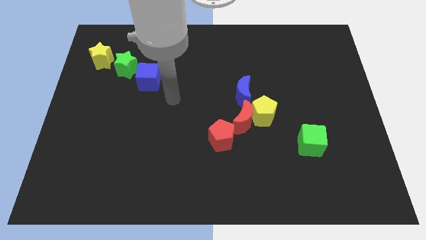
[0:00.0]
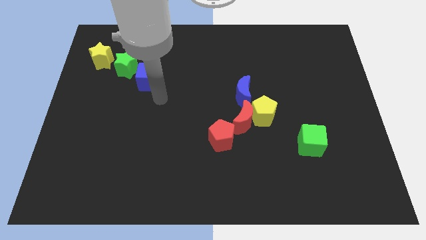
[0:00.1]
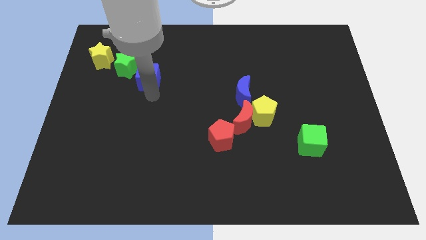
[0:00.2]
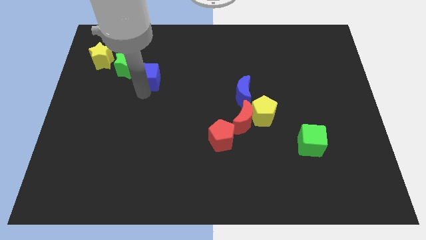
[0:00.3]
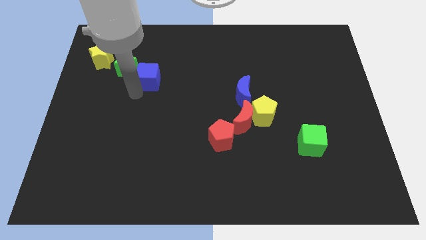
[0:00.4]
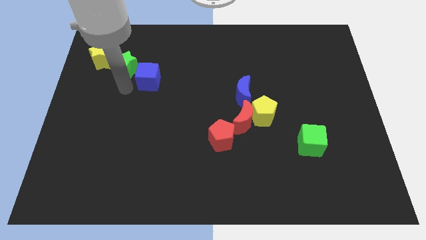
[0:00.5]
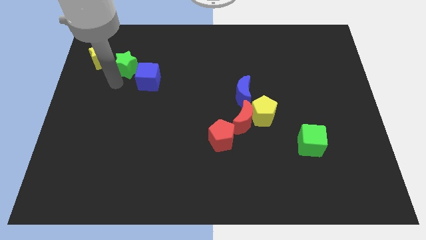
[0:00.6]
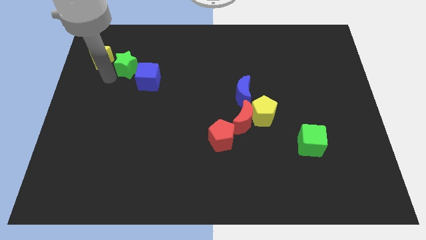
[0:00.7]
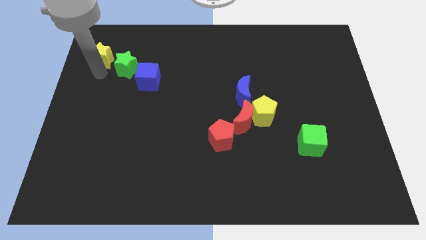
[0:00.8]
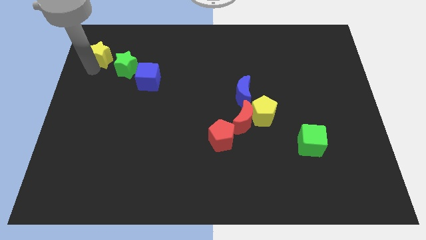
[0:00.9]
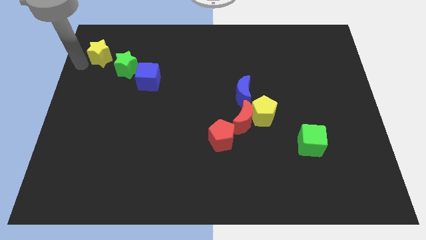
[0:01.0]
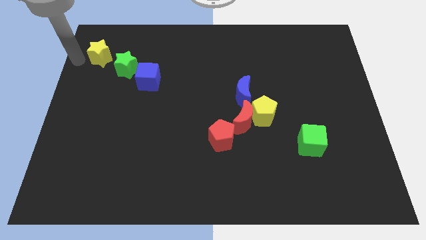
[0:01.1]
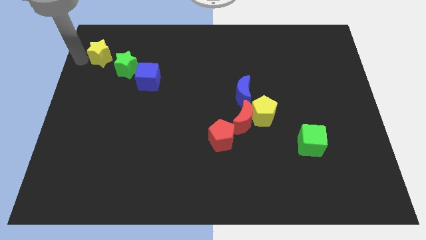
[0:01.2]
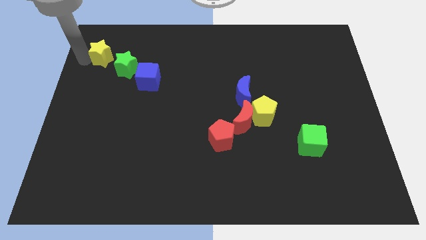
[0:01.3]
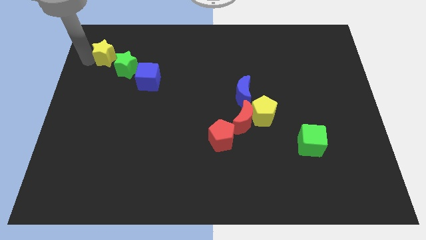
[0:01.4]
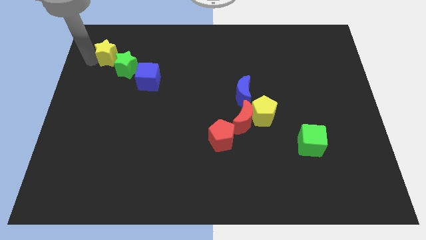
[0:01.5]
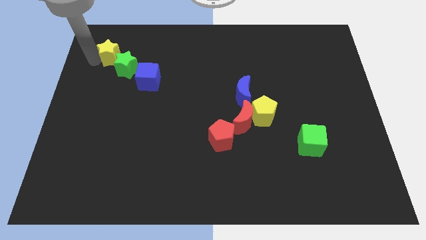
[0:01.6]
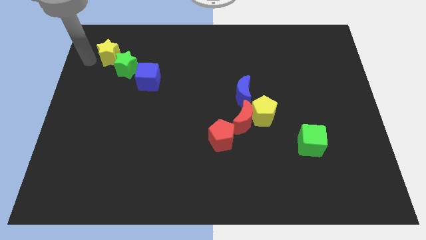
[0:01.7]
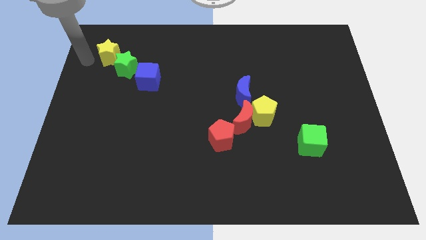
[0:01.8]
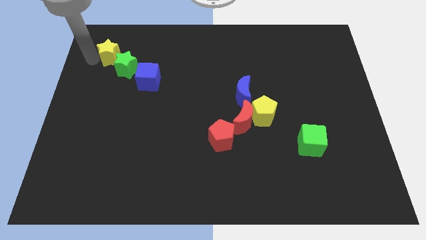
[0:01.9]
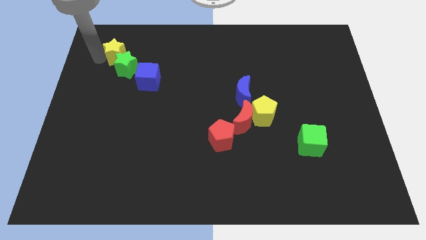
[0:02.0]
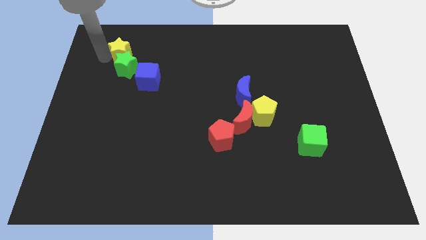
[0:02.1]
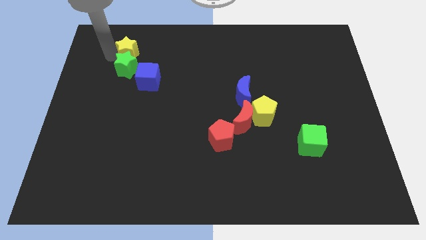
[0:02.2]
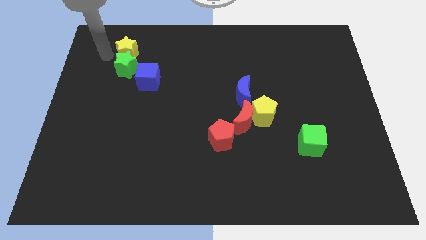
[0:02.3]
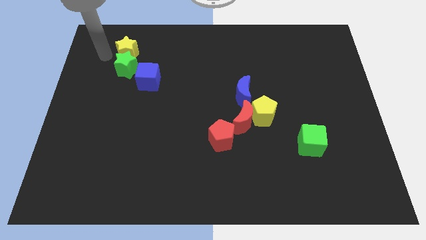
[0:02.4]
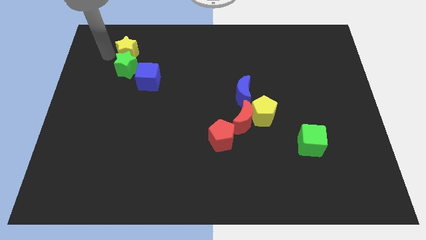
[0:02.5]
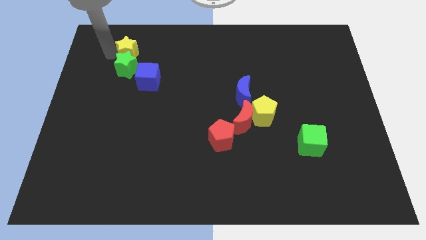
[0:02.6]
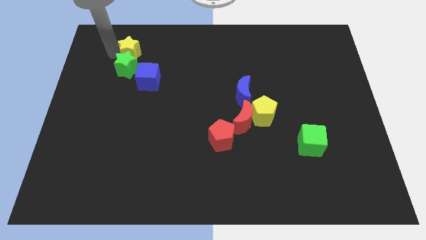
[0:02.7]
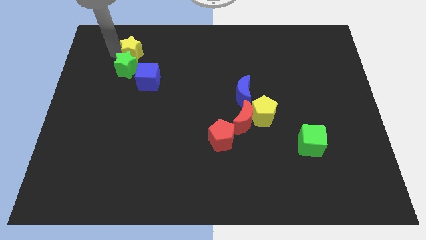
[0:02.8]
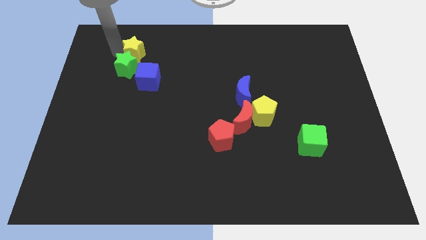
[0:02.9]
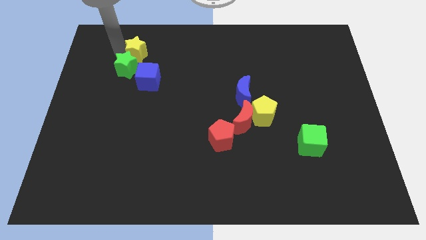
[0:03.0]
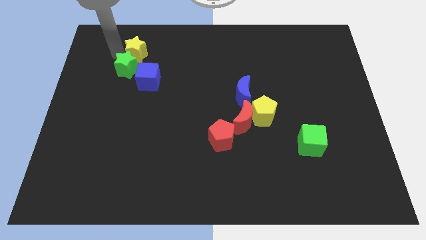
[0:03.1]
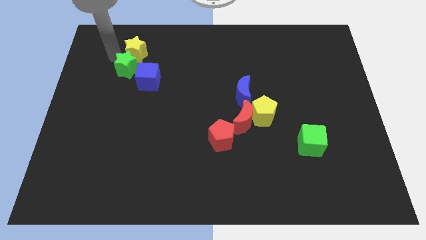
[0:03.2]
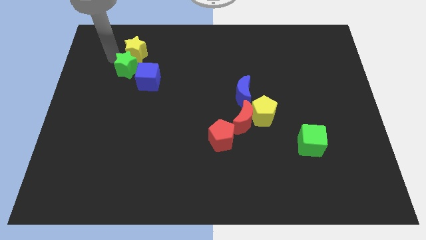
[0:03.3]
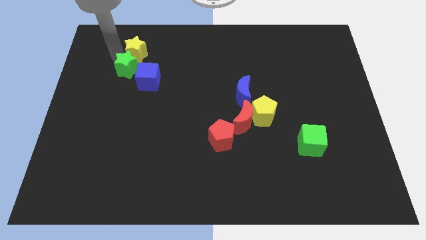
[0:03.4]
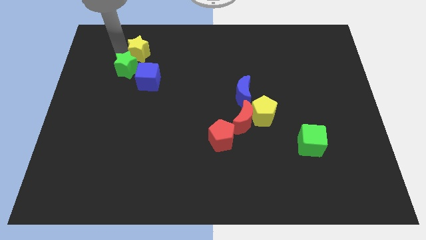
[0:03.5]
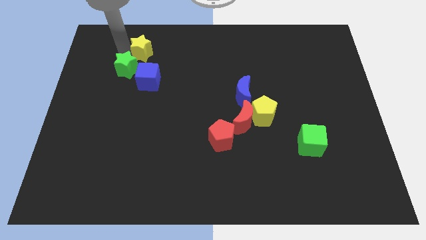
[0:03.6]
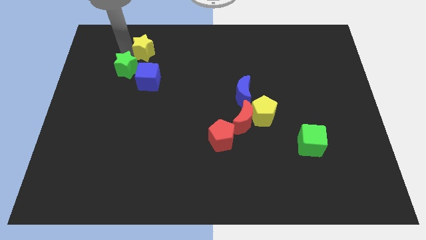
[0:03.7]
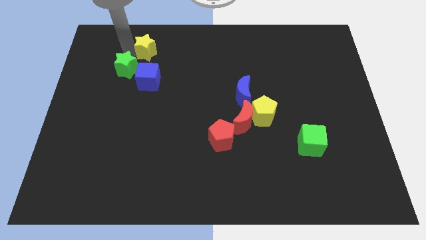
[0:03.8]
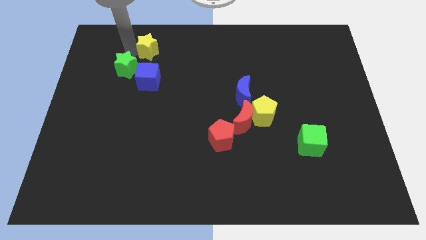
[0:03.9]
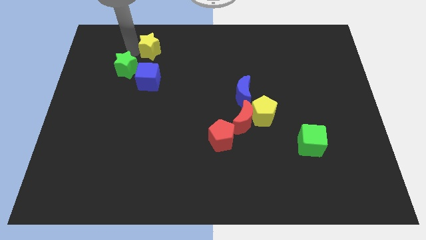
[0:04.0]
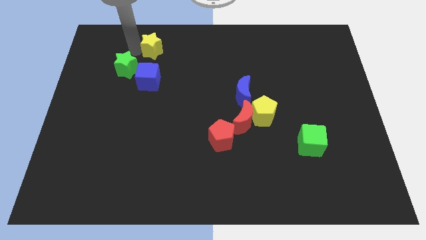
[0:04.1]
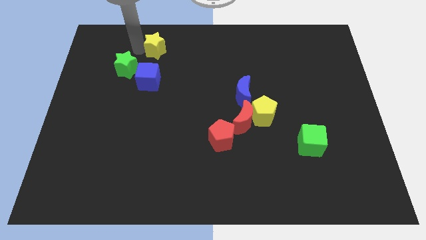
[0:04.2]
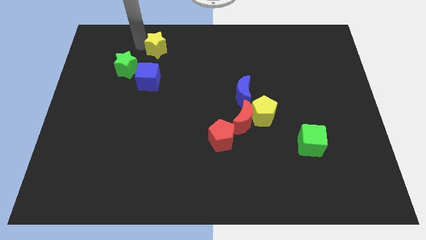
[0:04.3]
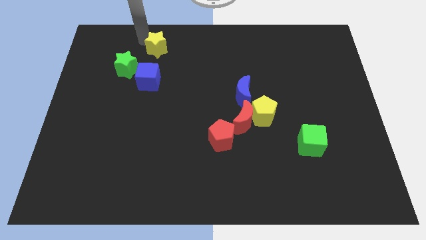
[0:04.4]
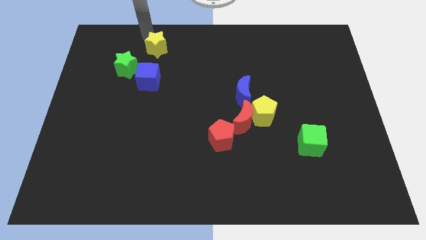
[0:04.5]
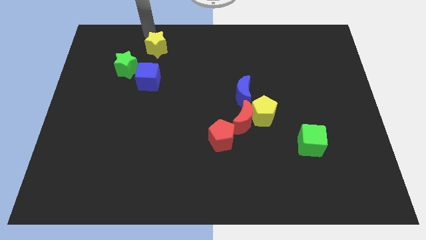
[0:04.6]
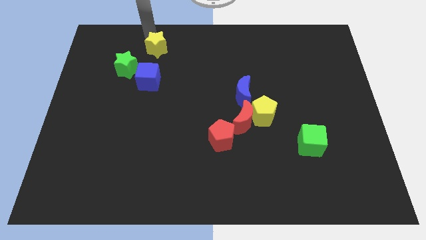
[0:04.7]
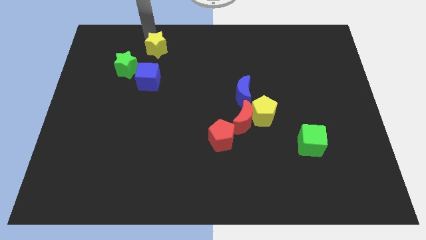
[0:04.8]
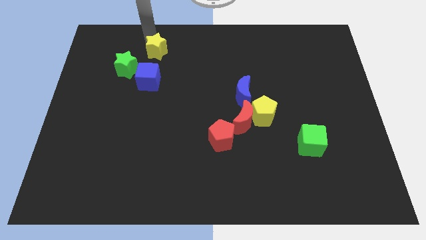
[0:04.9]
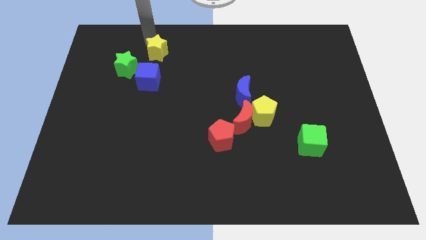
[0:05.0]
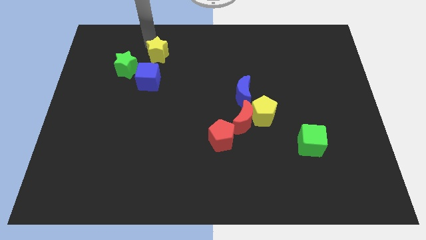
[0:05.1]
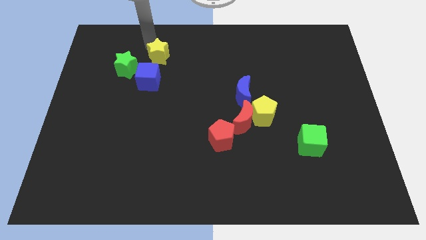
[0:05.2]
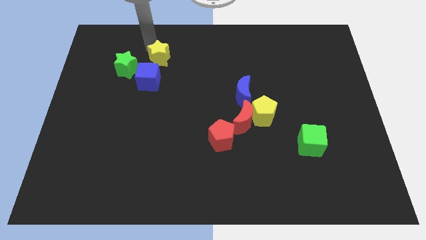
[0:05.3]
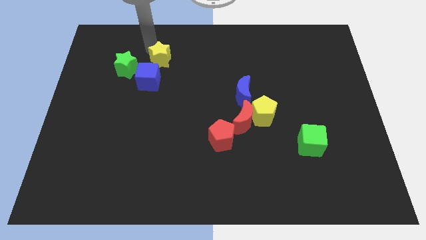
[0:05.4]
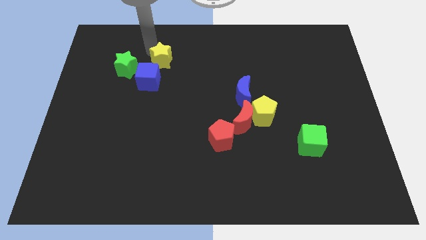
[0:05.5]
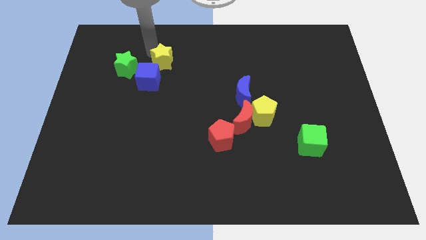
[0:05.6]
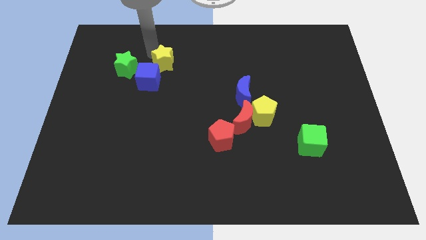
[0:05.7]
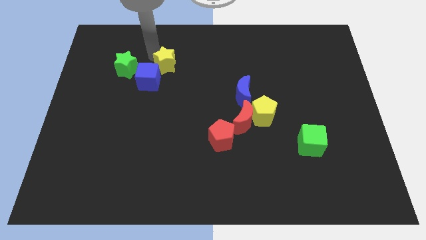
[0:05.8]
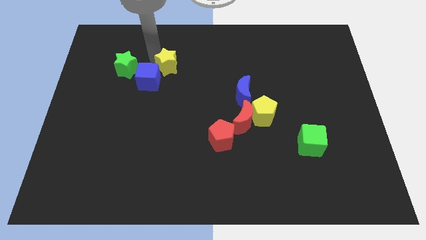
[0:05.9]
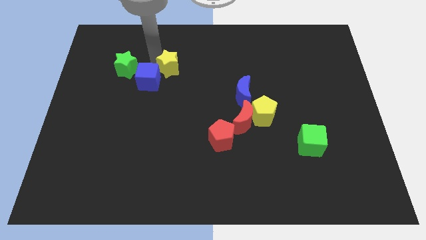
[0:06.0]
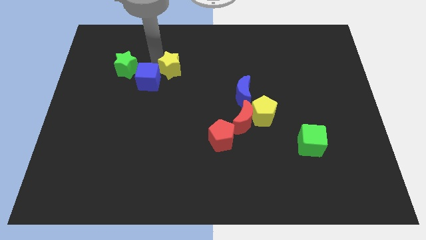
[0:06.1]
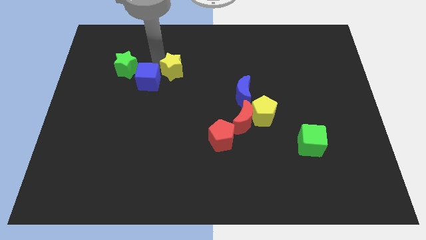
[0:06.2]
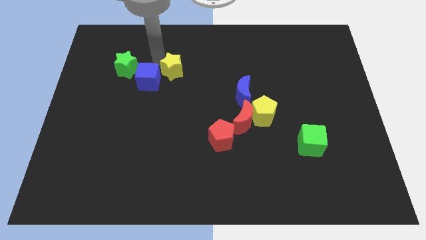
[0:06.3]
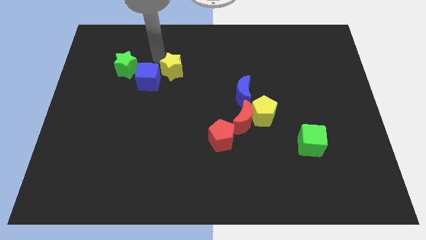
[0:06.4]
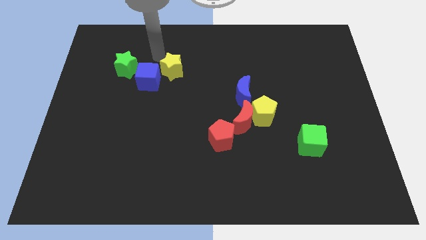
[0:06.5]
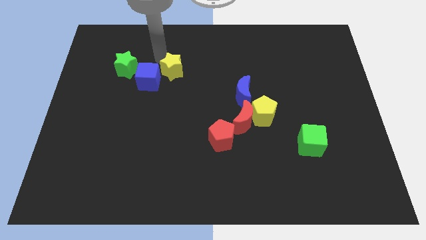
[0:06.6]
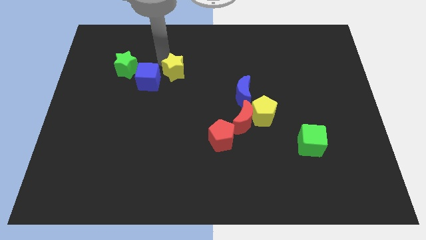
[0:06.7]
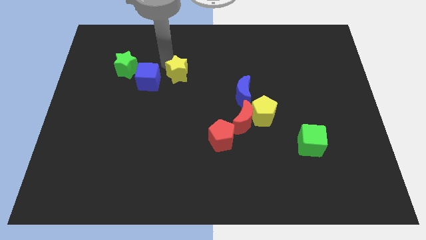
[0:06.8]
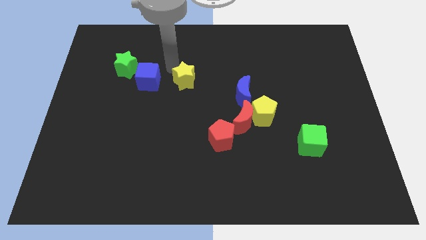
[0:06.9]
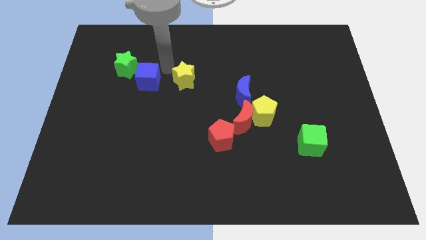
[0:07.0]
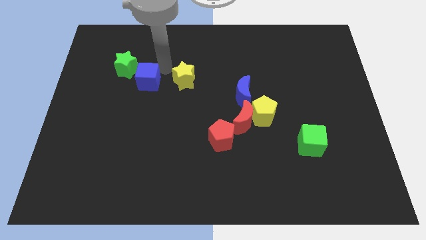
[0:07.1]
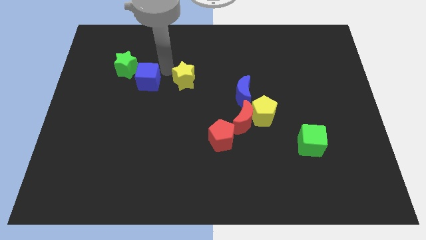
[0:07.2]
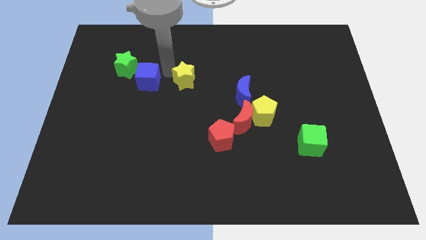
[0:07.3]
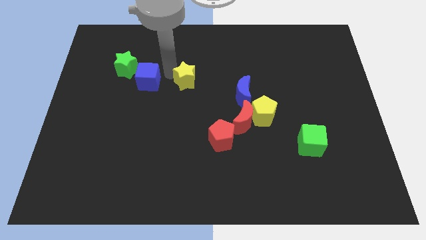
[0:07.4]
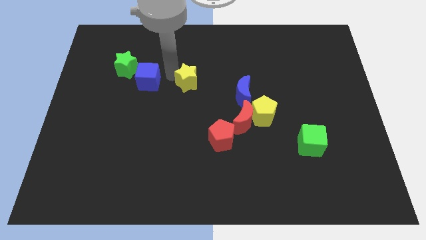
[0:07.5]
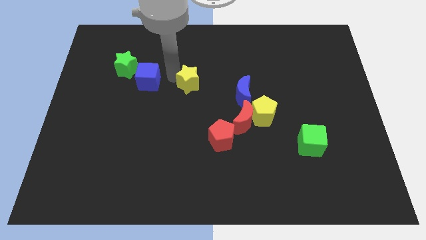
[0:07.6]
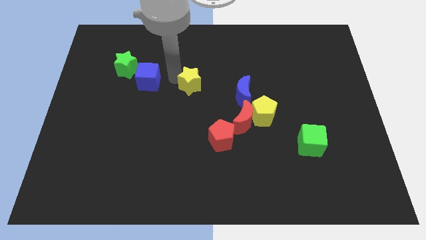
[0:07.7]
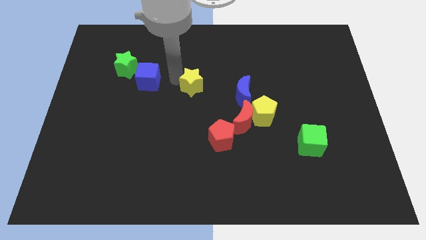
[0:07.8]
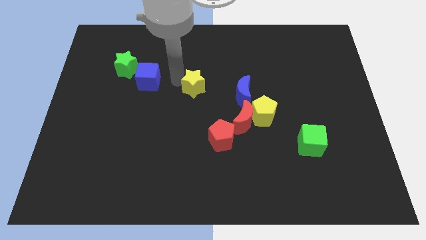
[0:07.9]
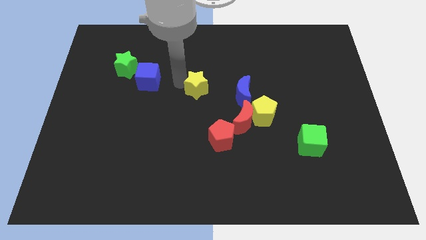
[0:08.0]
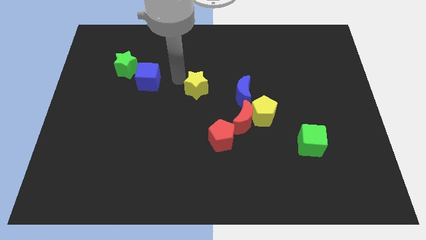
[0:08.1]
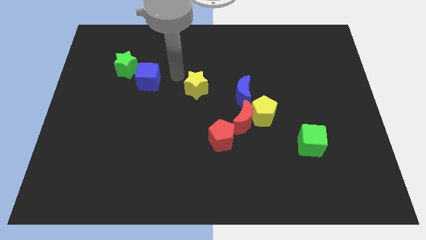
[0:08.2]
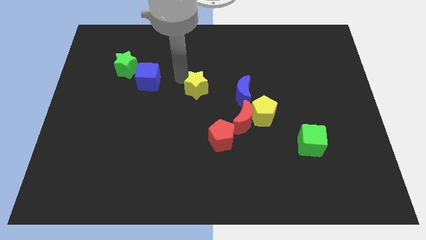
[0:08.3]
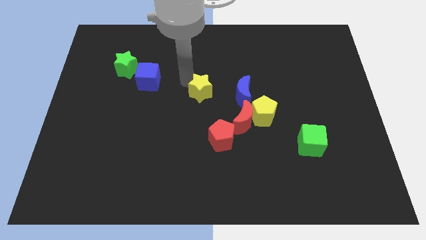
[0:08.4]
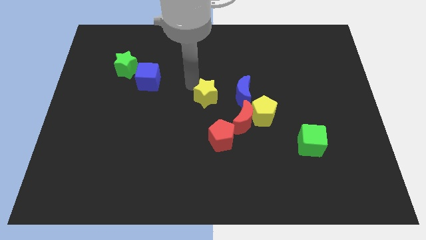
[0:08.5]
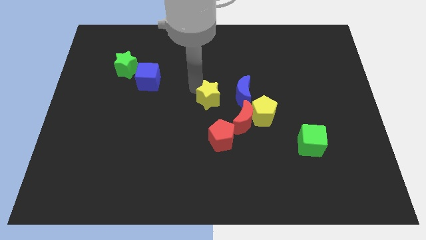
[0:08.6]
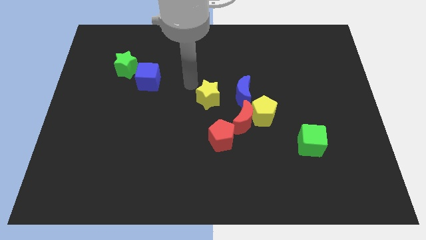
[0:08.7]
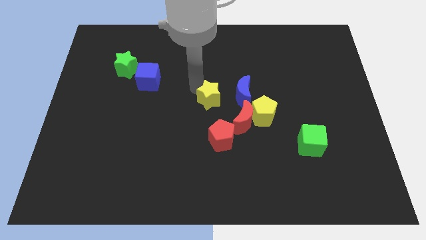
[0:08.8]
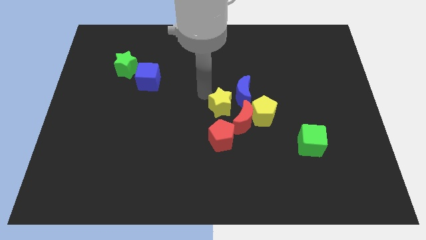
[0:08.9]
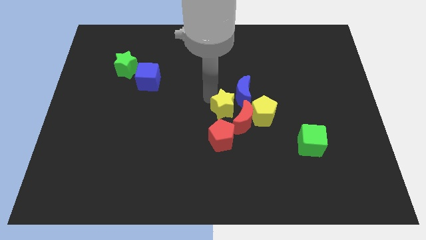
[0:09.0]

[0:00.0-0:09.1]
push the yellow star towards the red moon
